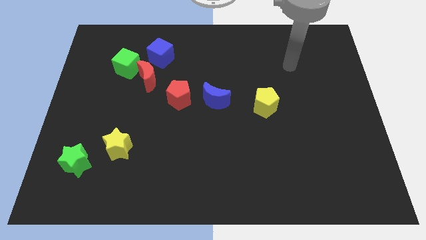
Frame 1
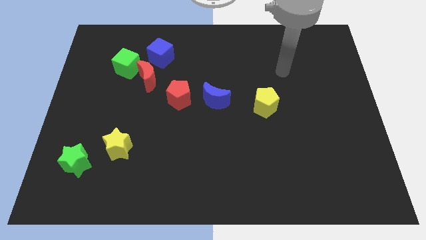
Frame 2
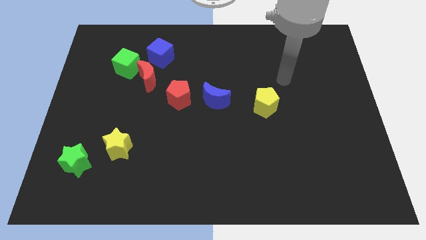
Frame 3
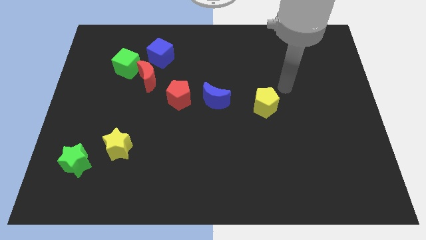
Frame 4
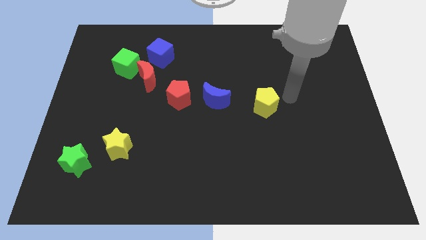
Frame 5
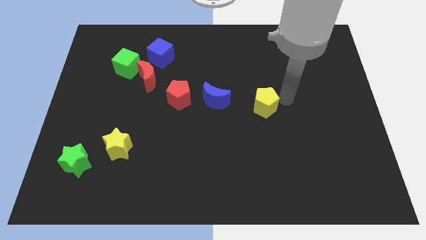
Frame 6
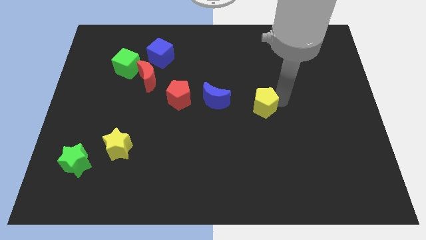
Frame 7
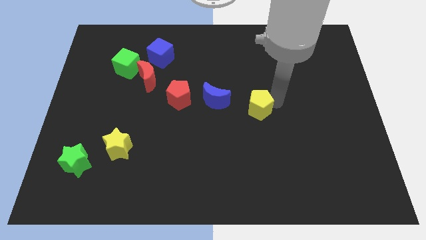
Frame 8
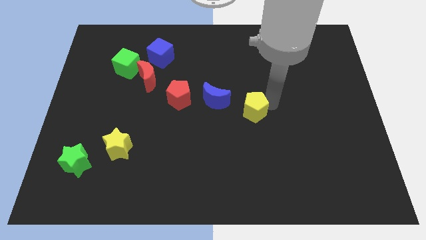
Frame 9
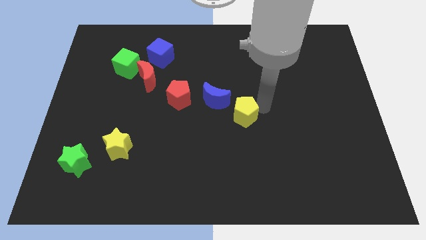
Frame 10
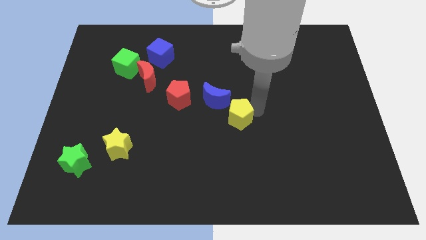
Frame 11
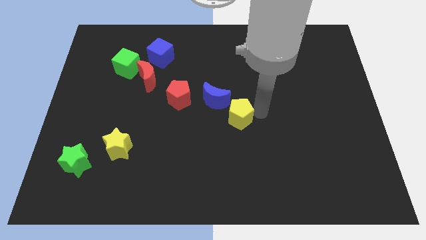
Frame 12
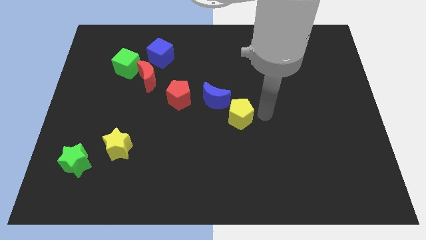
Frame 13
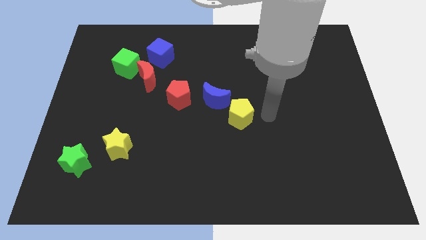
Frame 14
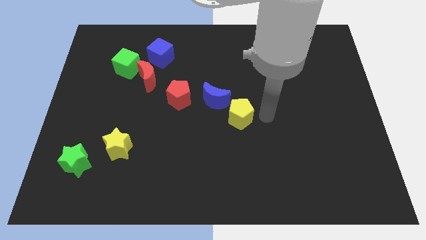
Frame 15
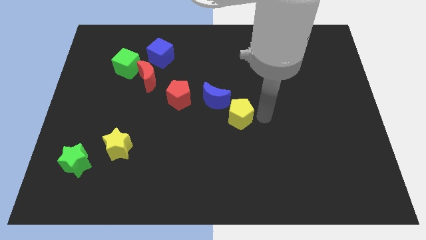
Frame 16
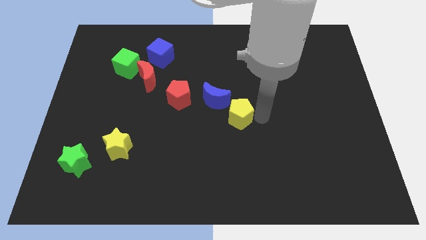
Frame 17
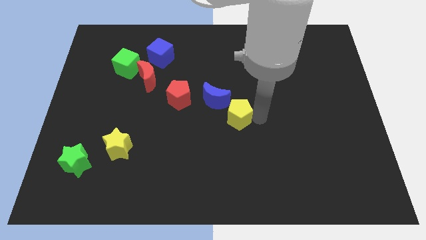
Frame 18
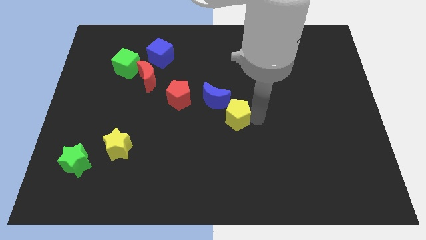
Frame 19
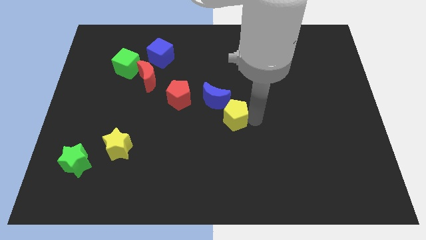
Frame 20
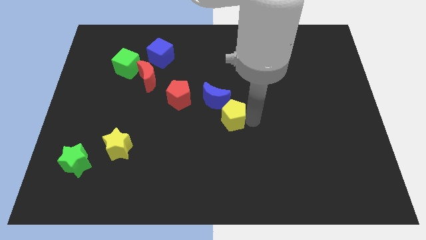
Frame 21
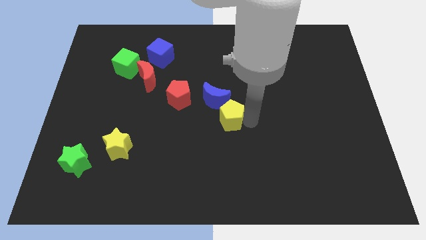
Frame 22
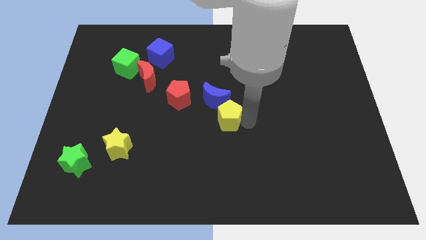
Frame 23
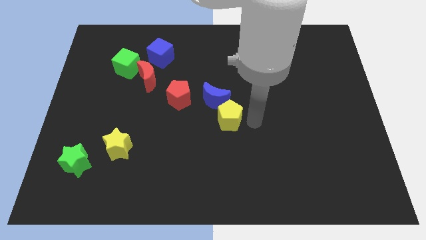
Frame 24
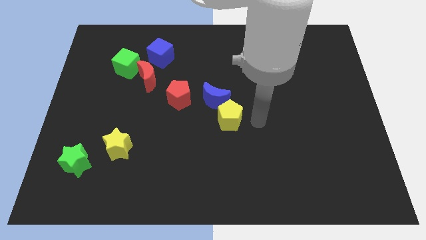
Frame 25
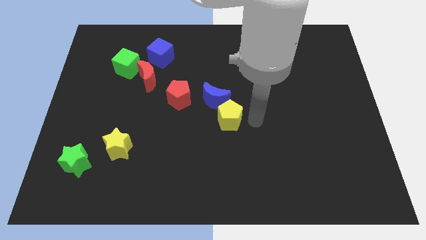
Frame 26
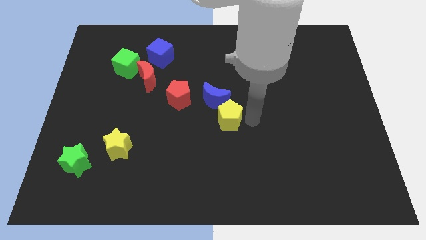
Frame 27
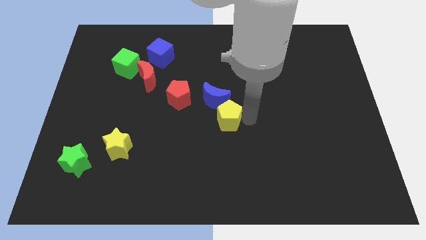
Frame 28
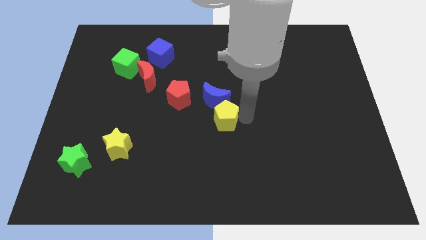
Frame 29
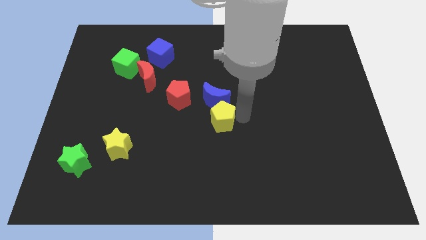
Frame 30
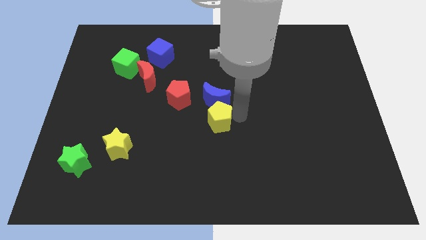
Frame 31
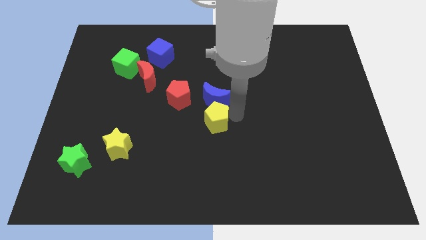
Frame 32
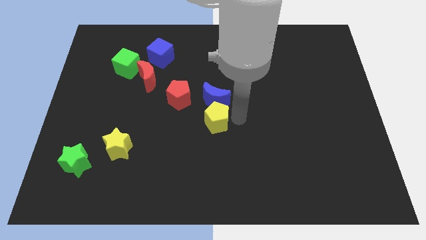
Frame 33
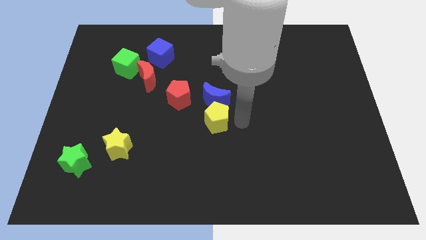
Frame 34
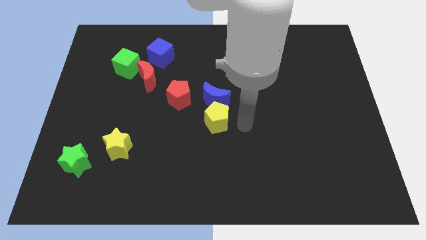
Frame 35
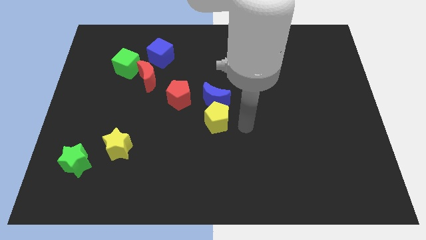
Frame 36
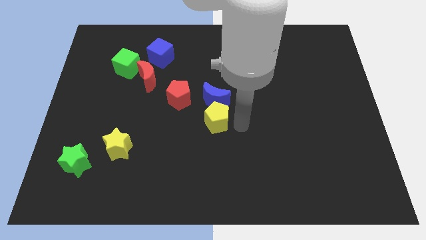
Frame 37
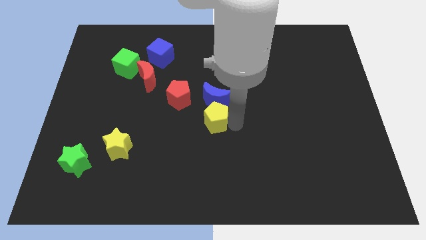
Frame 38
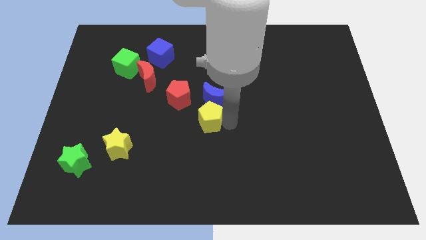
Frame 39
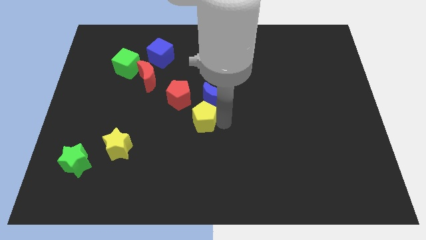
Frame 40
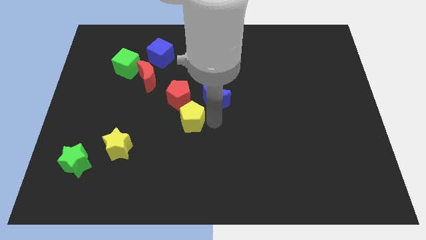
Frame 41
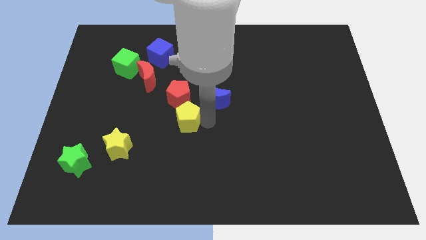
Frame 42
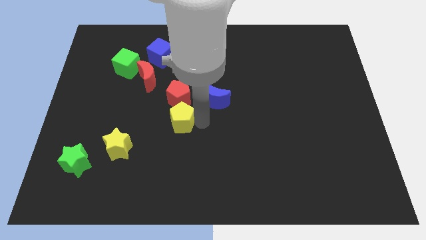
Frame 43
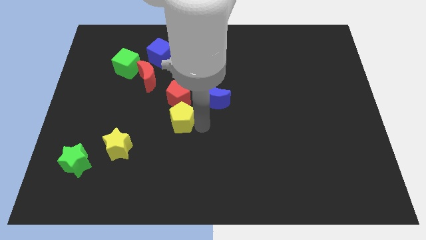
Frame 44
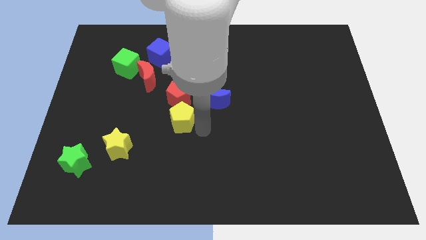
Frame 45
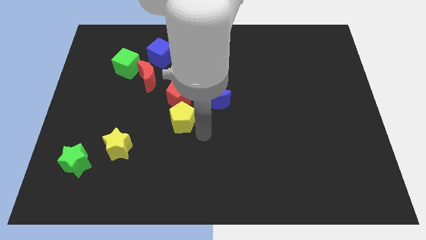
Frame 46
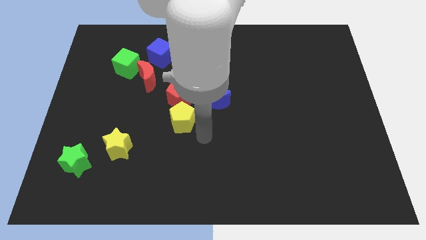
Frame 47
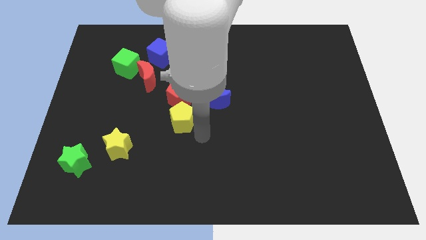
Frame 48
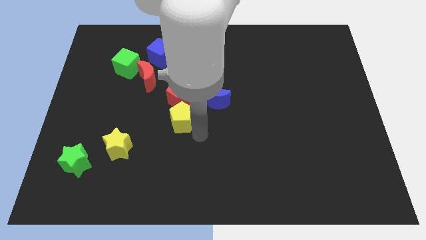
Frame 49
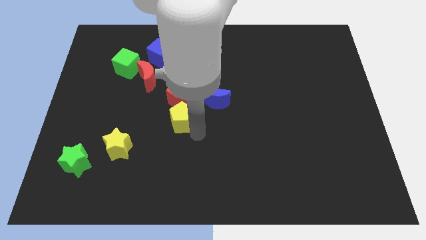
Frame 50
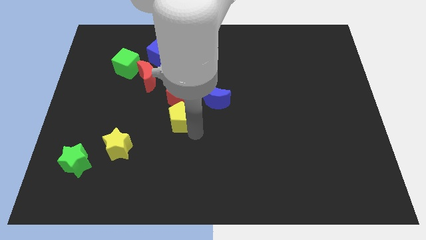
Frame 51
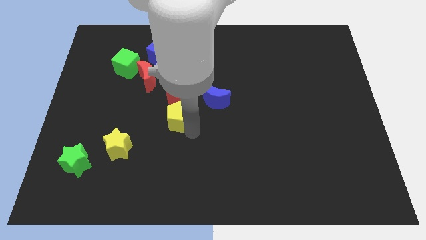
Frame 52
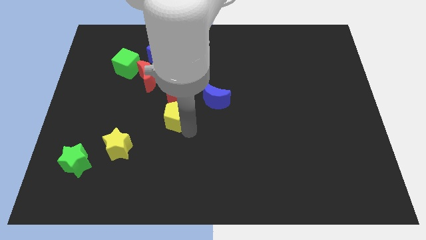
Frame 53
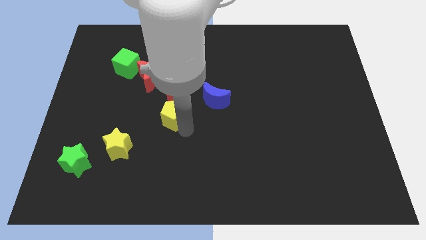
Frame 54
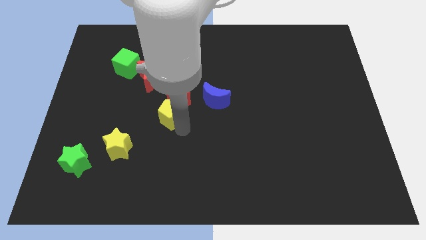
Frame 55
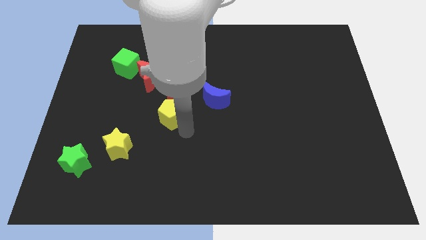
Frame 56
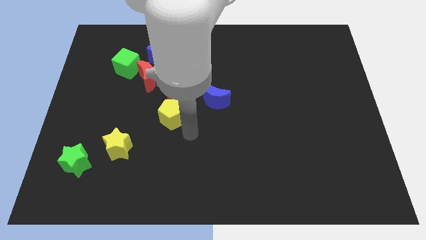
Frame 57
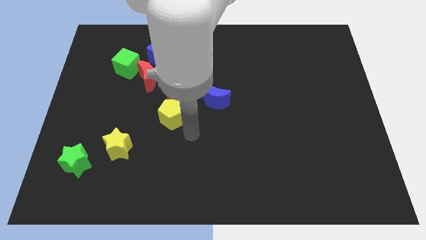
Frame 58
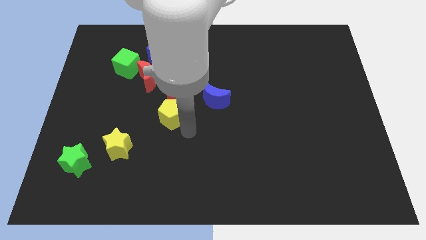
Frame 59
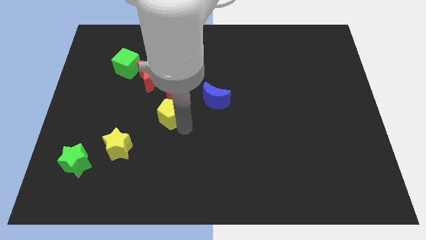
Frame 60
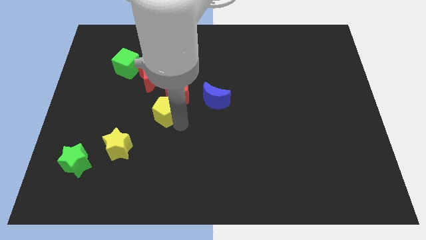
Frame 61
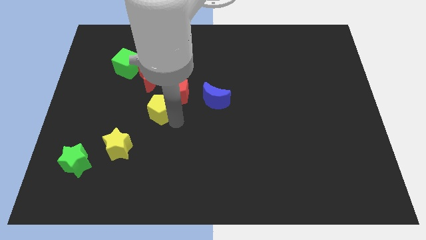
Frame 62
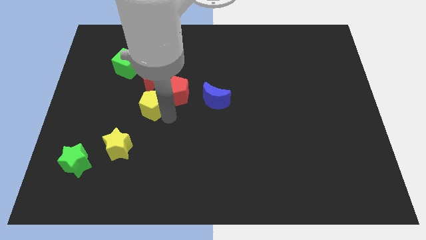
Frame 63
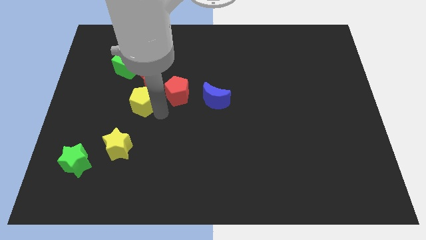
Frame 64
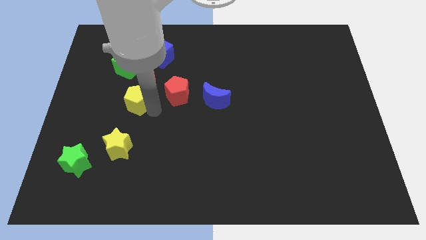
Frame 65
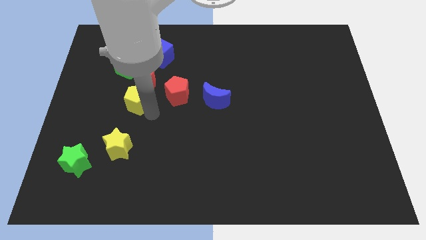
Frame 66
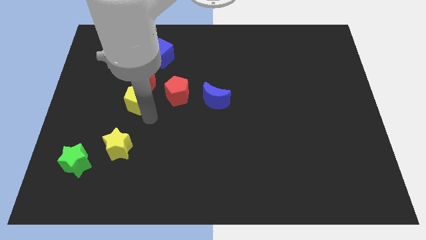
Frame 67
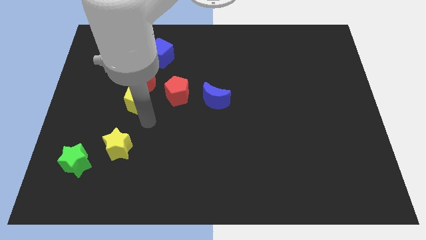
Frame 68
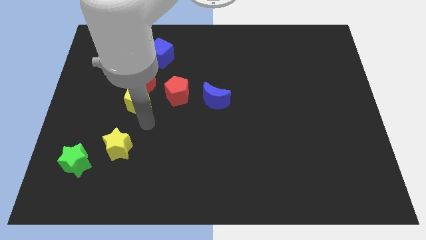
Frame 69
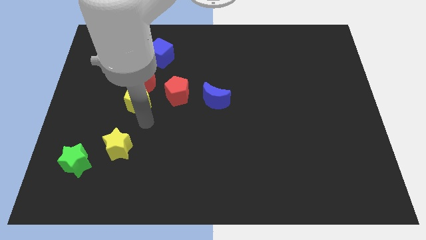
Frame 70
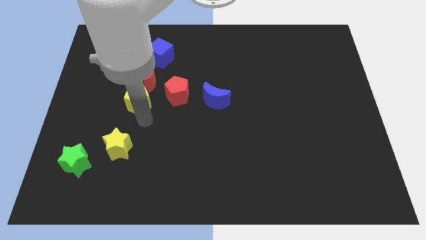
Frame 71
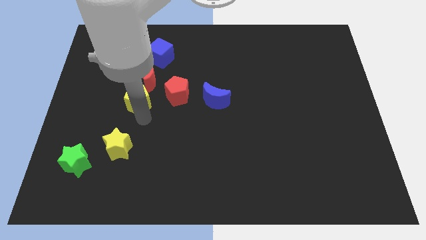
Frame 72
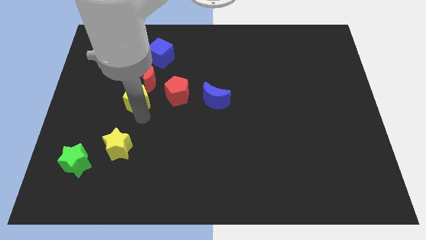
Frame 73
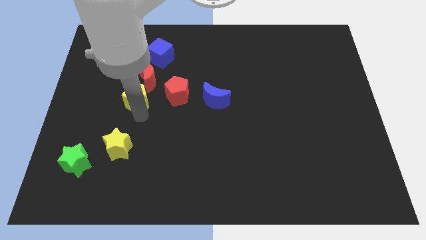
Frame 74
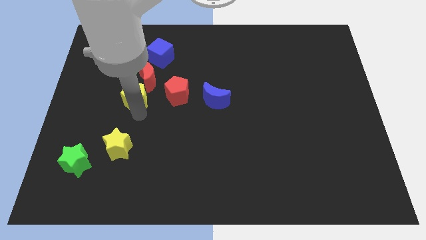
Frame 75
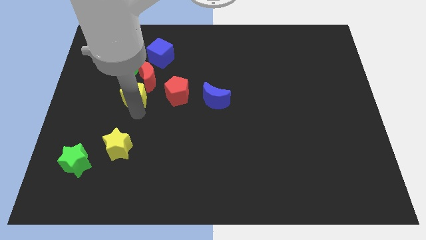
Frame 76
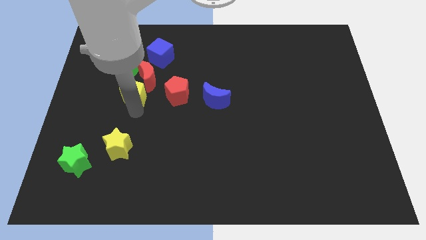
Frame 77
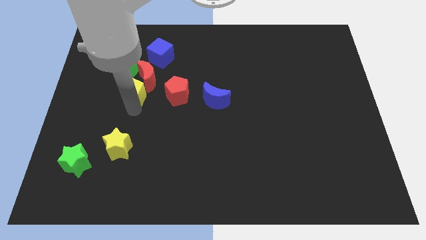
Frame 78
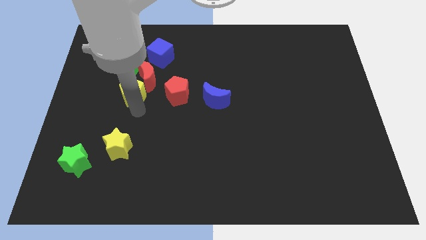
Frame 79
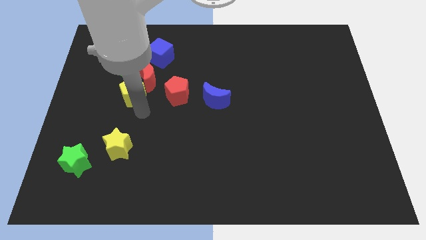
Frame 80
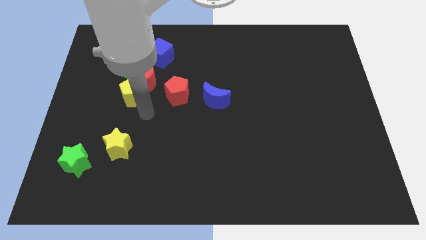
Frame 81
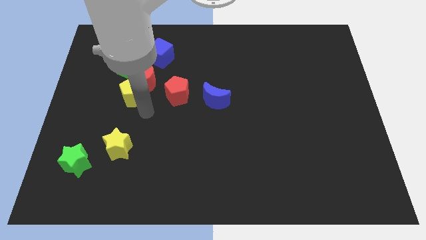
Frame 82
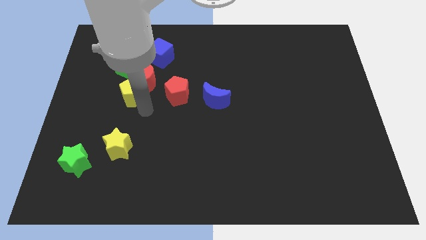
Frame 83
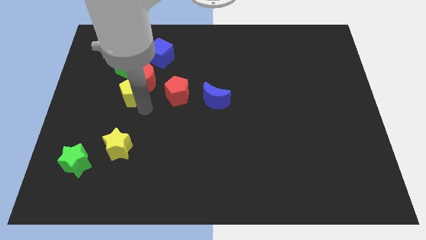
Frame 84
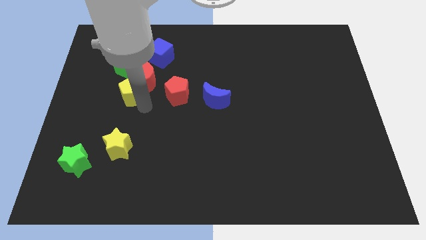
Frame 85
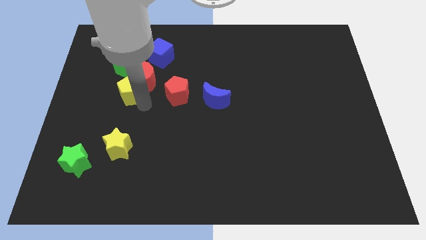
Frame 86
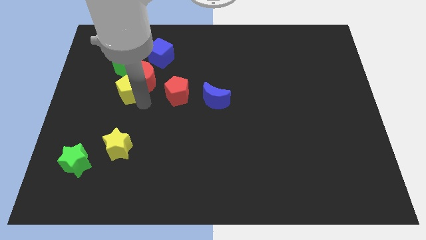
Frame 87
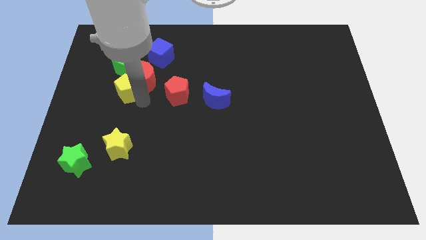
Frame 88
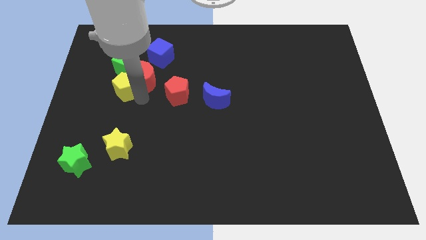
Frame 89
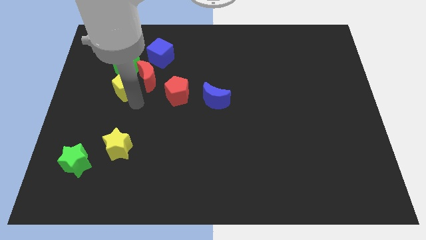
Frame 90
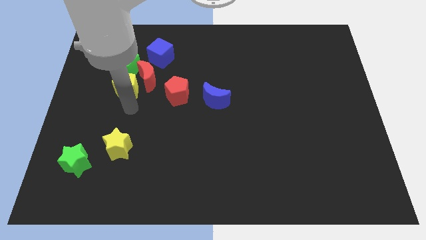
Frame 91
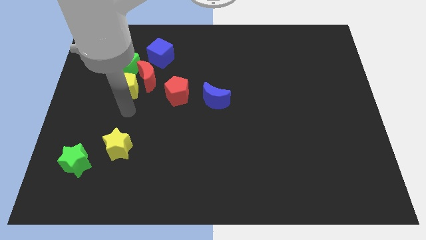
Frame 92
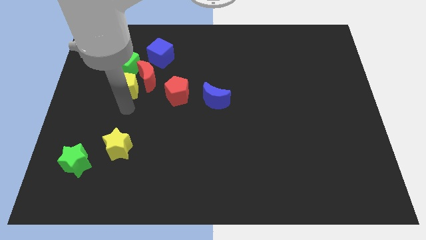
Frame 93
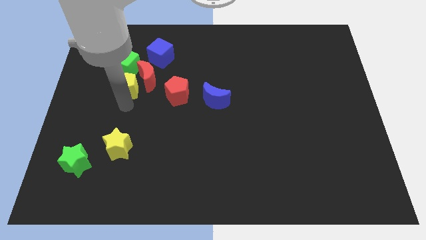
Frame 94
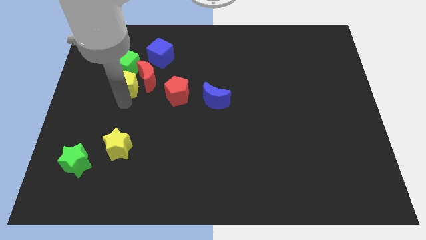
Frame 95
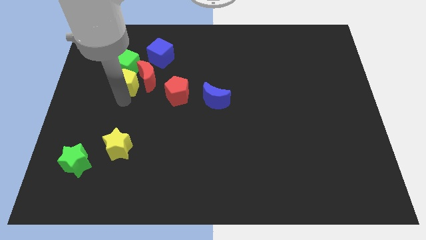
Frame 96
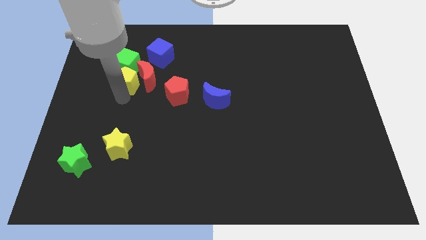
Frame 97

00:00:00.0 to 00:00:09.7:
move the yellow pentagon towards the green cube
